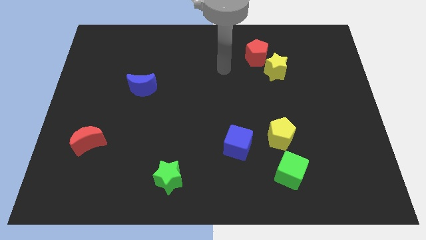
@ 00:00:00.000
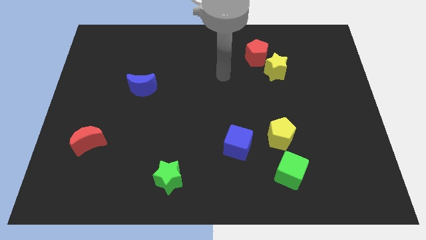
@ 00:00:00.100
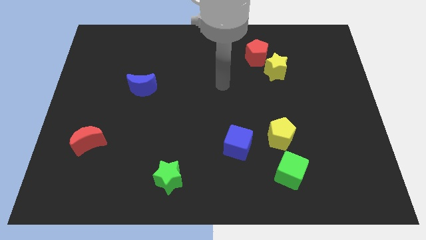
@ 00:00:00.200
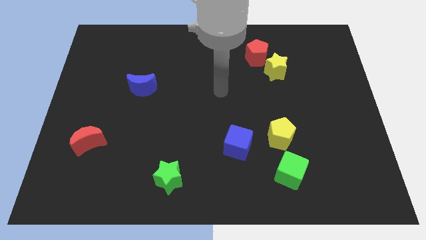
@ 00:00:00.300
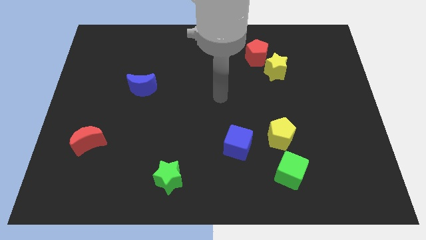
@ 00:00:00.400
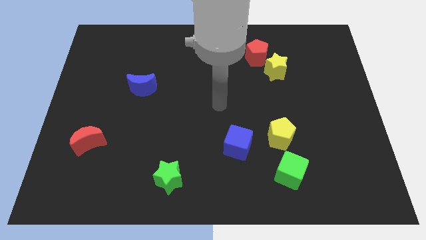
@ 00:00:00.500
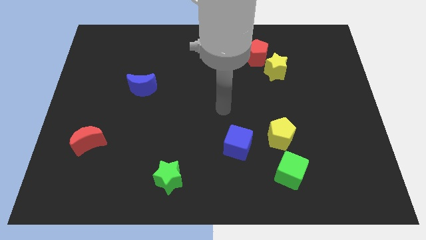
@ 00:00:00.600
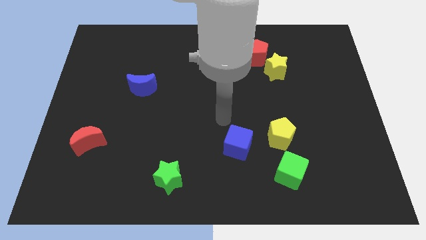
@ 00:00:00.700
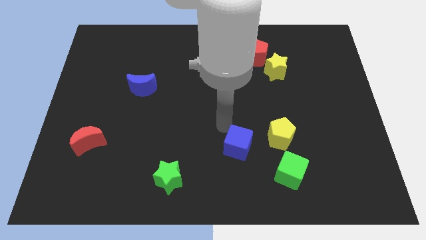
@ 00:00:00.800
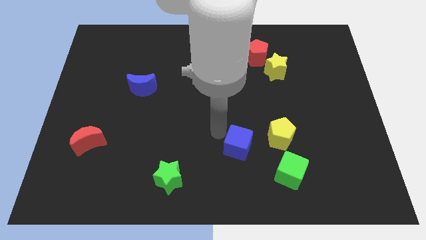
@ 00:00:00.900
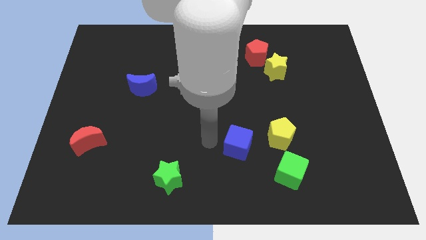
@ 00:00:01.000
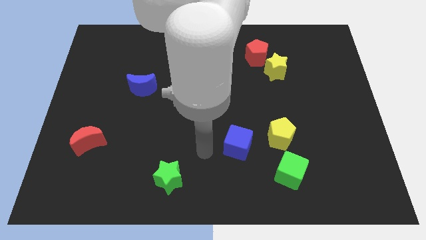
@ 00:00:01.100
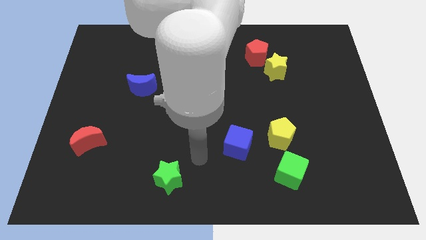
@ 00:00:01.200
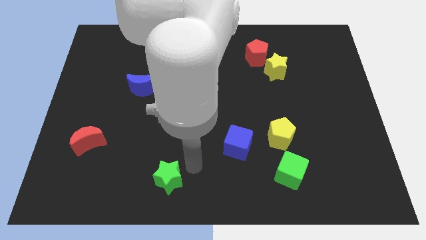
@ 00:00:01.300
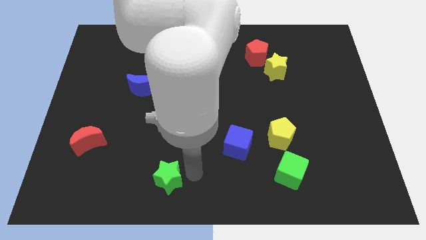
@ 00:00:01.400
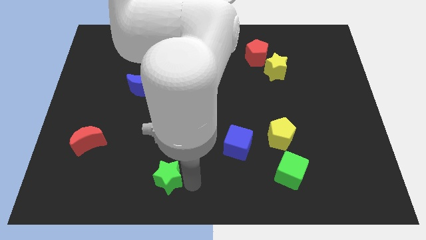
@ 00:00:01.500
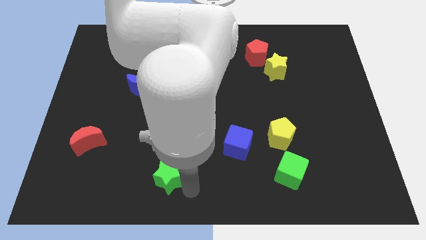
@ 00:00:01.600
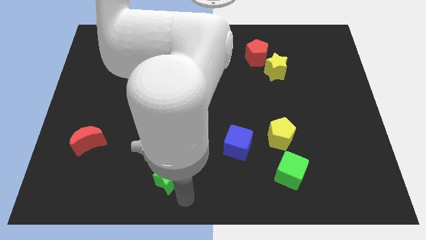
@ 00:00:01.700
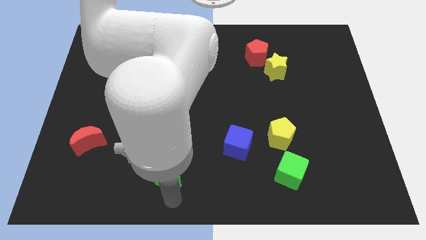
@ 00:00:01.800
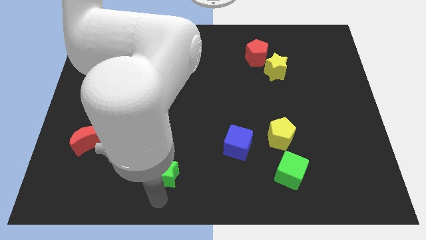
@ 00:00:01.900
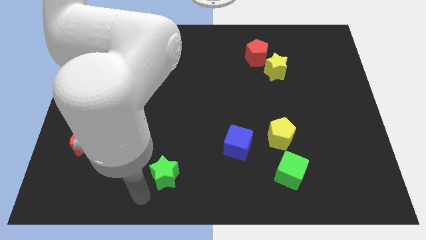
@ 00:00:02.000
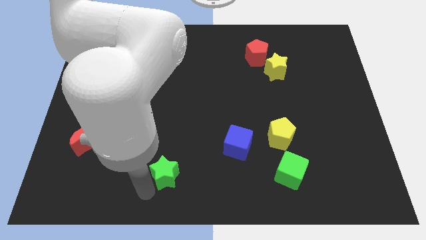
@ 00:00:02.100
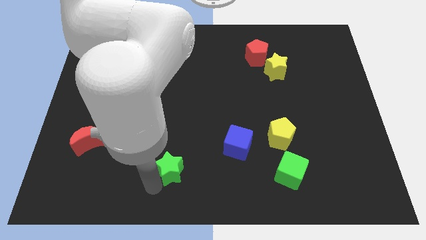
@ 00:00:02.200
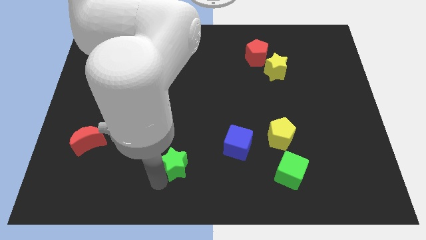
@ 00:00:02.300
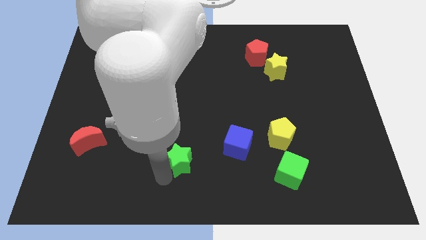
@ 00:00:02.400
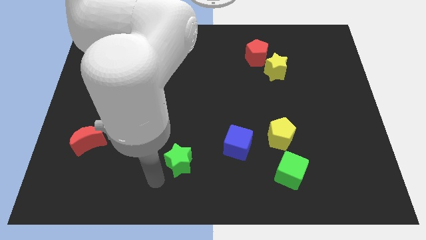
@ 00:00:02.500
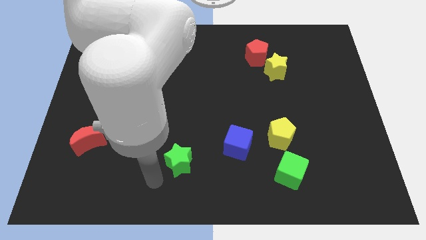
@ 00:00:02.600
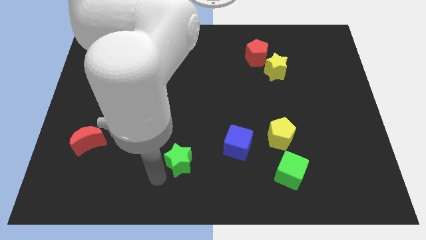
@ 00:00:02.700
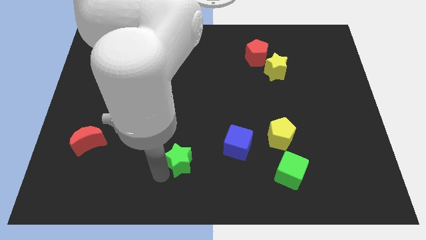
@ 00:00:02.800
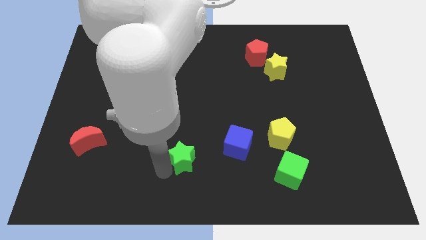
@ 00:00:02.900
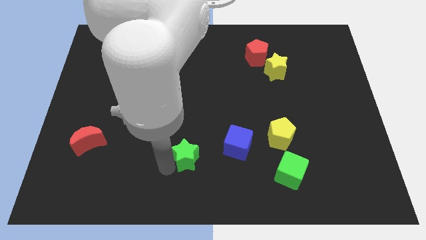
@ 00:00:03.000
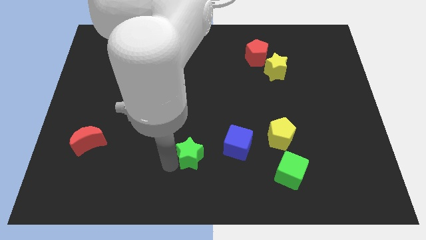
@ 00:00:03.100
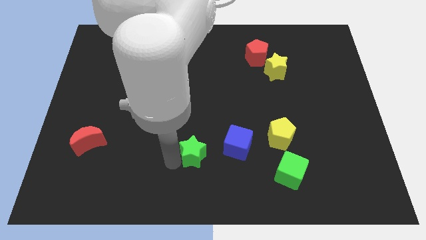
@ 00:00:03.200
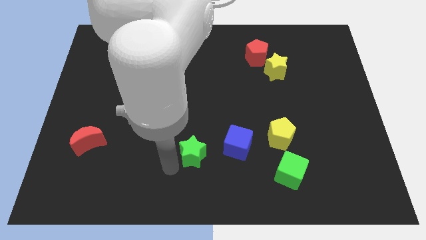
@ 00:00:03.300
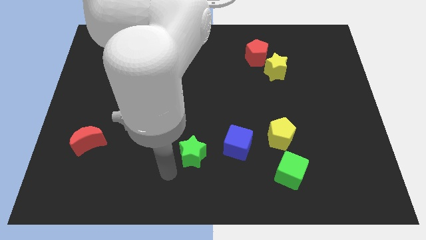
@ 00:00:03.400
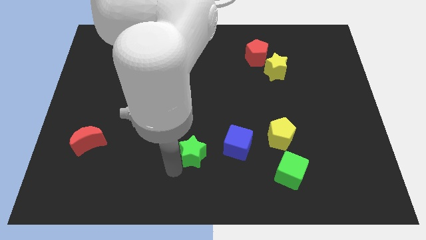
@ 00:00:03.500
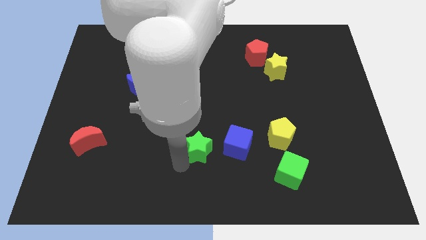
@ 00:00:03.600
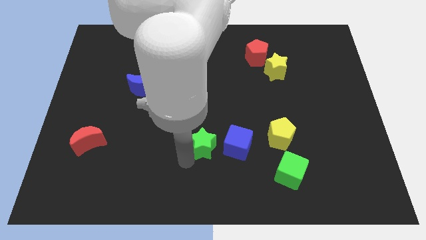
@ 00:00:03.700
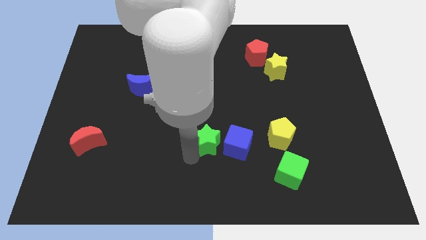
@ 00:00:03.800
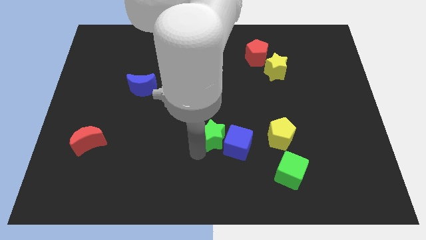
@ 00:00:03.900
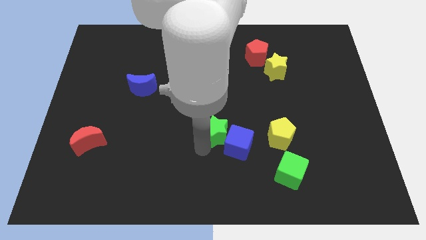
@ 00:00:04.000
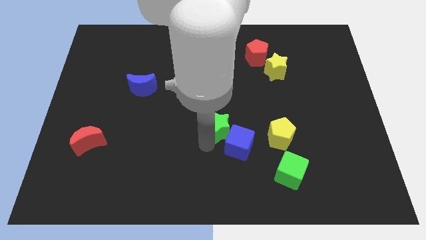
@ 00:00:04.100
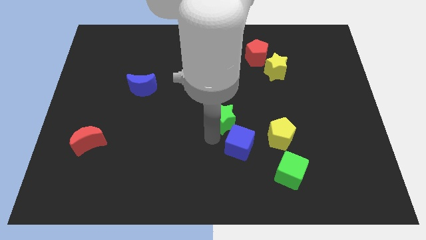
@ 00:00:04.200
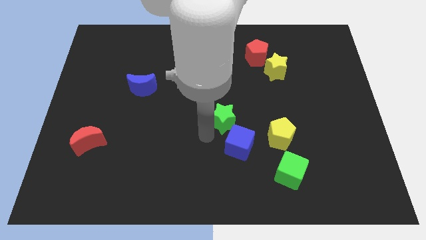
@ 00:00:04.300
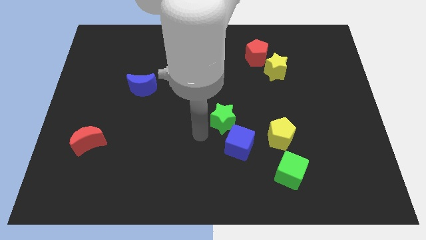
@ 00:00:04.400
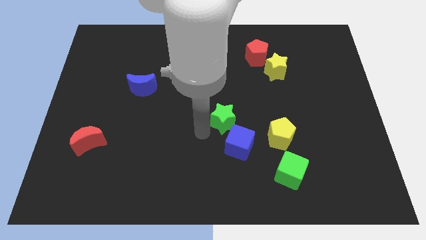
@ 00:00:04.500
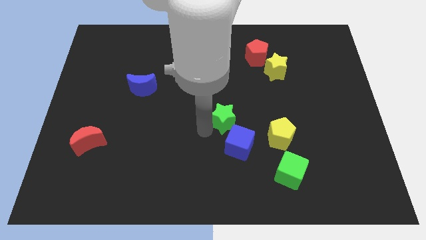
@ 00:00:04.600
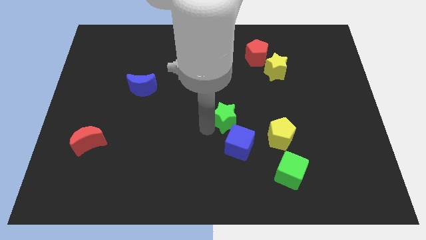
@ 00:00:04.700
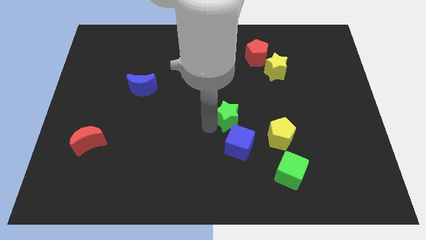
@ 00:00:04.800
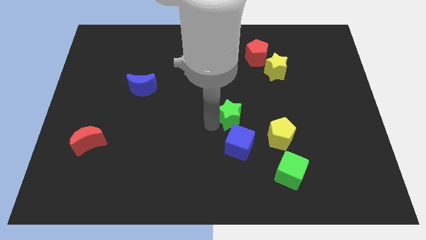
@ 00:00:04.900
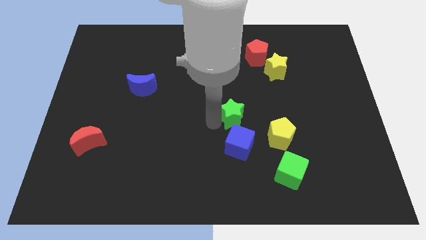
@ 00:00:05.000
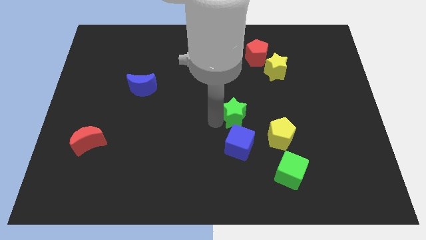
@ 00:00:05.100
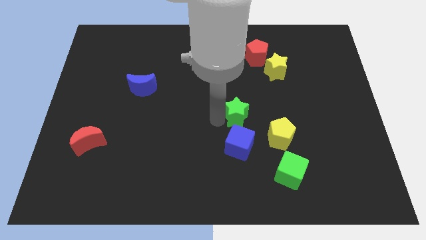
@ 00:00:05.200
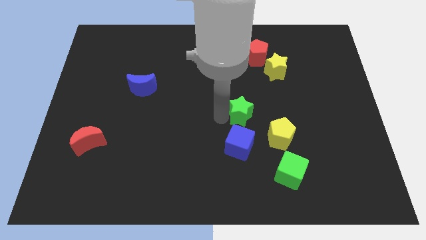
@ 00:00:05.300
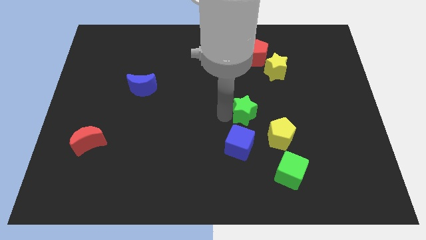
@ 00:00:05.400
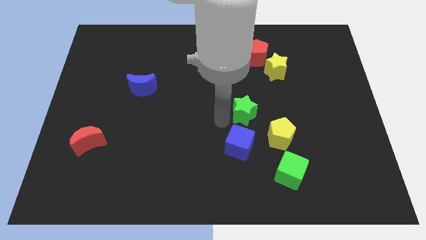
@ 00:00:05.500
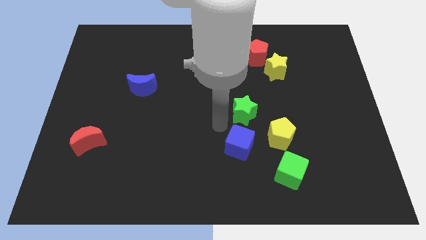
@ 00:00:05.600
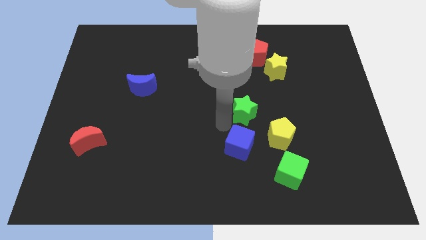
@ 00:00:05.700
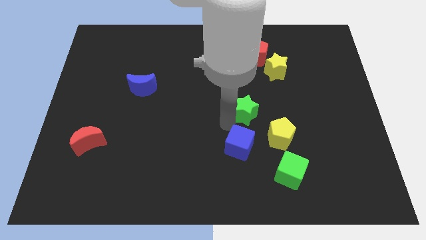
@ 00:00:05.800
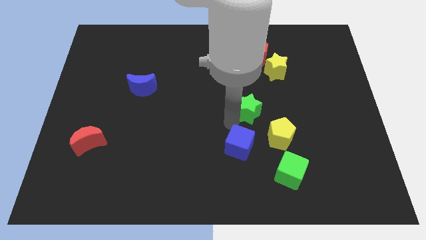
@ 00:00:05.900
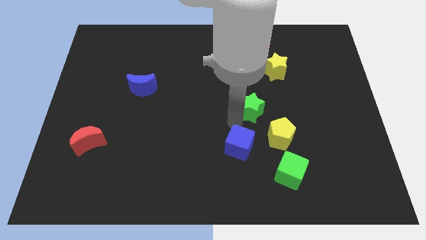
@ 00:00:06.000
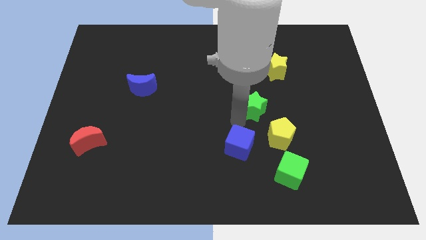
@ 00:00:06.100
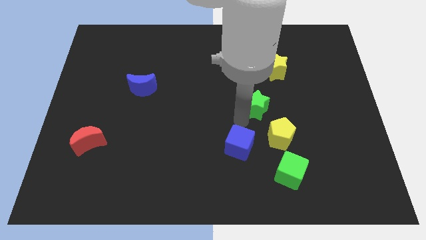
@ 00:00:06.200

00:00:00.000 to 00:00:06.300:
put the green star to the top of the yellow pentagon
